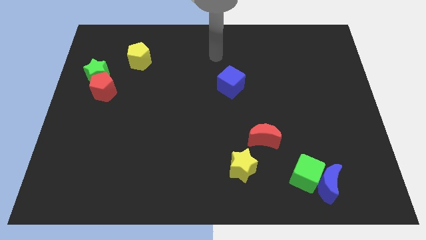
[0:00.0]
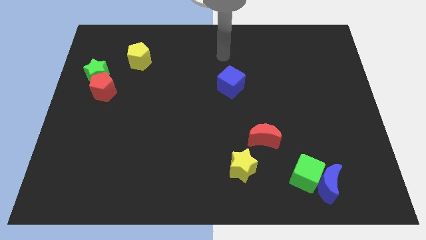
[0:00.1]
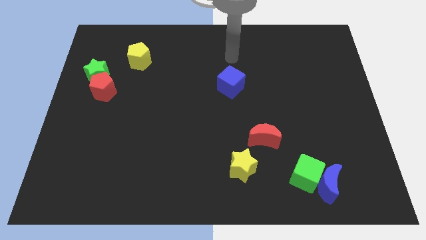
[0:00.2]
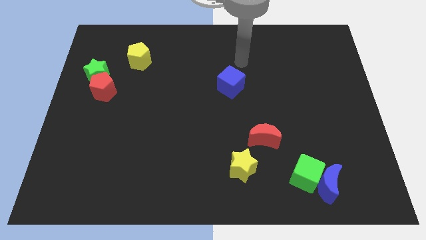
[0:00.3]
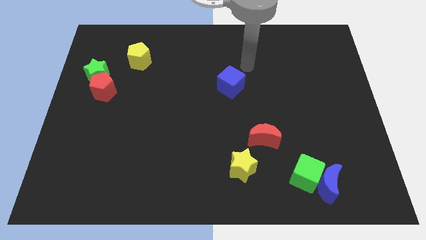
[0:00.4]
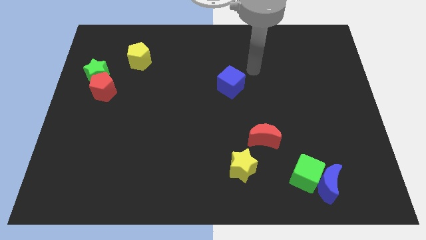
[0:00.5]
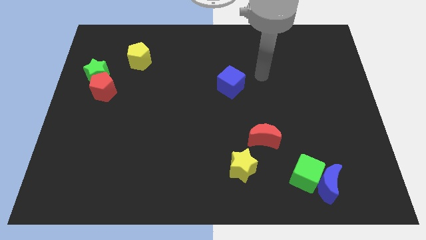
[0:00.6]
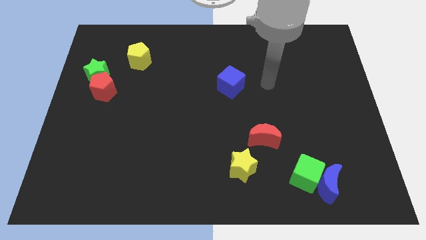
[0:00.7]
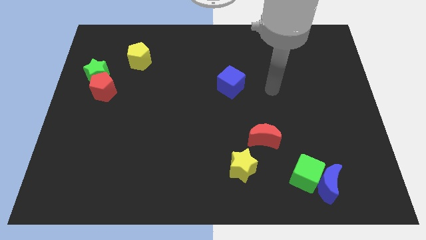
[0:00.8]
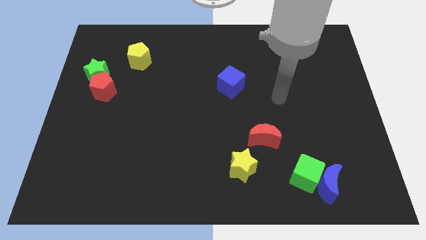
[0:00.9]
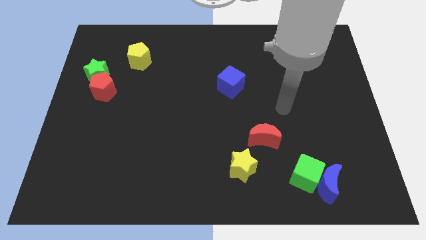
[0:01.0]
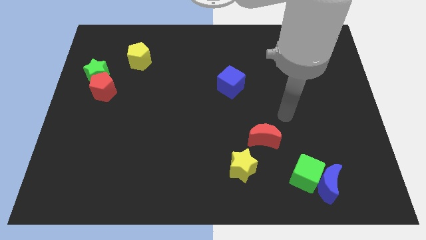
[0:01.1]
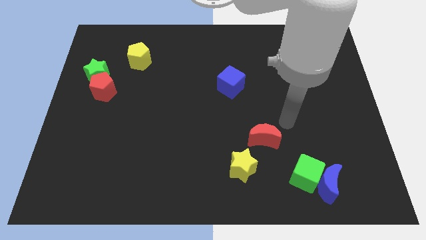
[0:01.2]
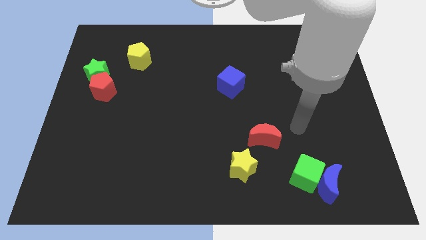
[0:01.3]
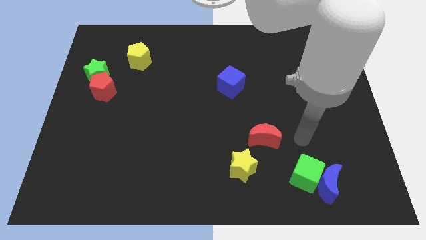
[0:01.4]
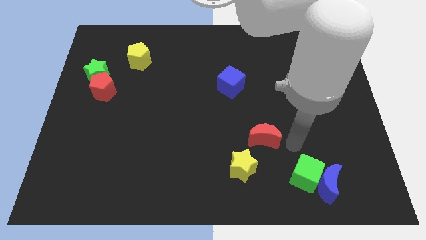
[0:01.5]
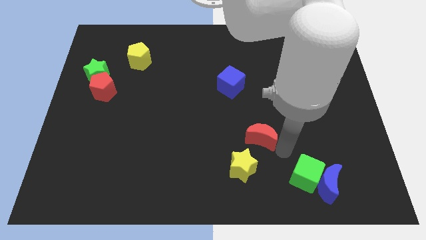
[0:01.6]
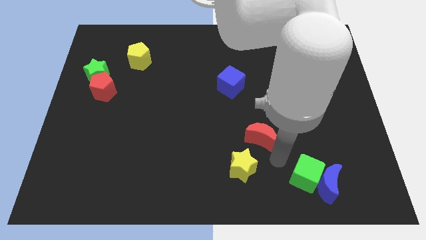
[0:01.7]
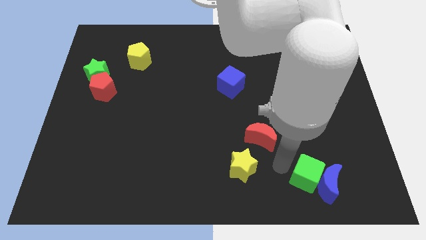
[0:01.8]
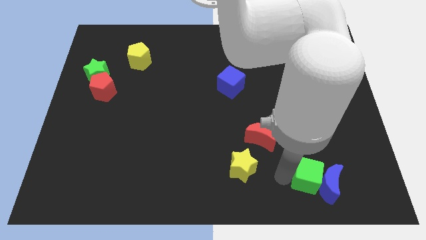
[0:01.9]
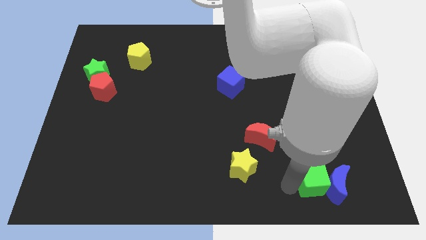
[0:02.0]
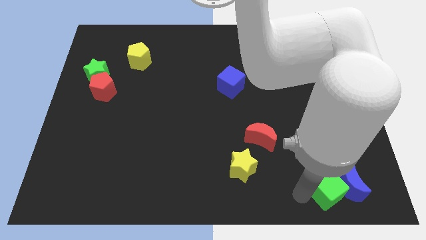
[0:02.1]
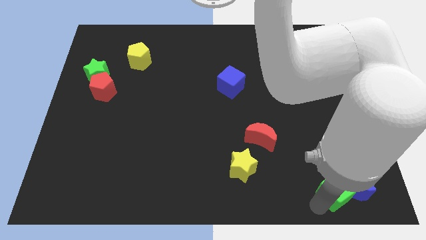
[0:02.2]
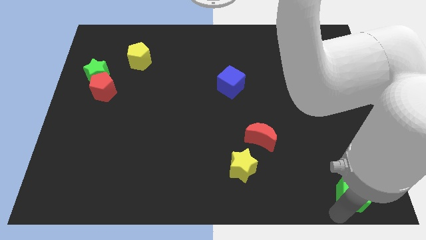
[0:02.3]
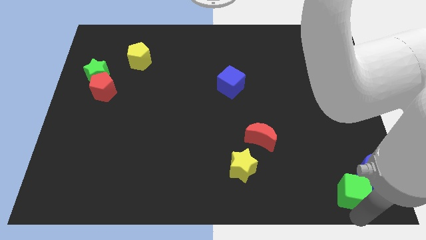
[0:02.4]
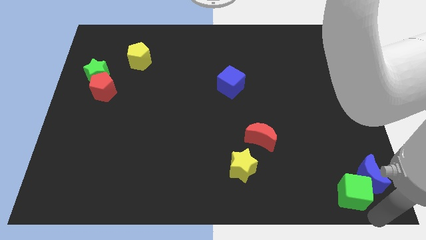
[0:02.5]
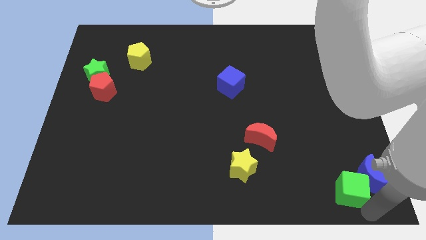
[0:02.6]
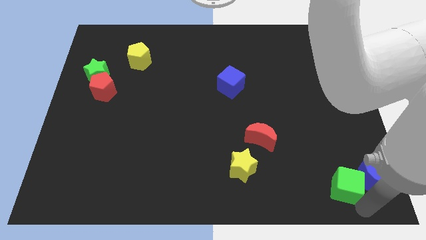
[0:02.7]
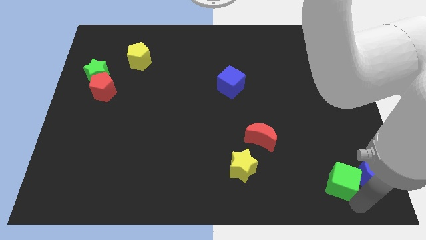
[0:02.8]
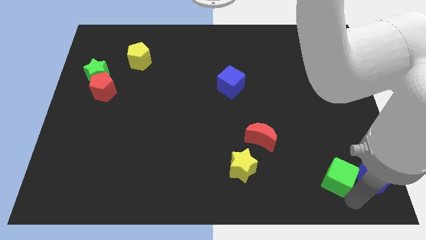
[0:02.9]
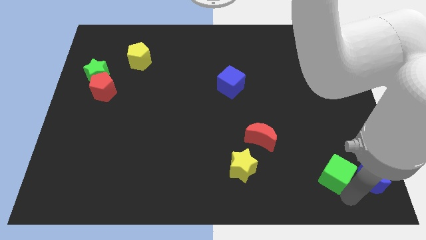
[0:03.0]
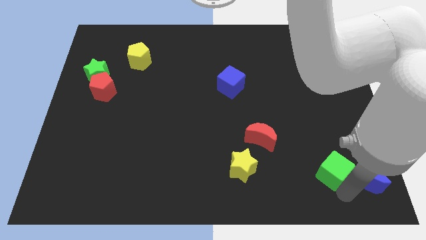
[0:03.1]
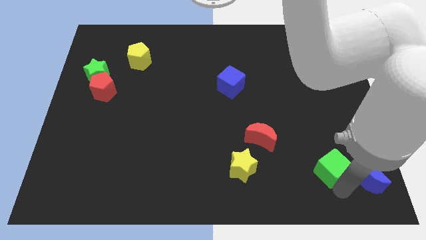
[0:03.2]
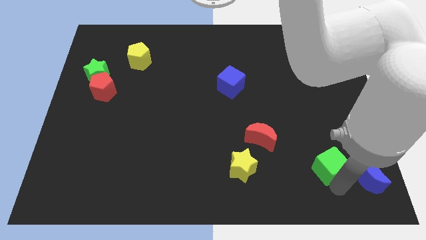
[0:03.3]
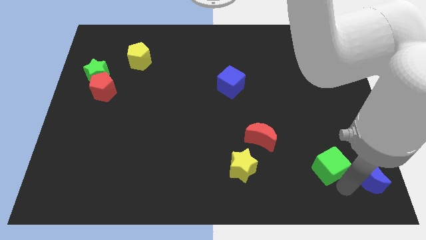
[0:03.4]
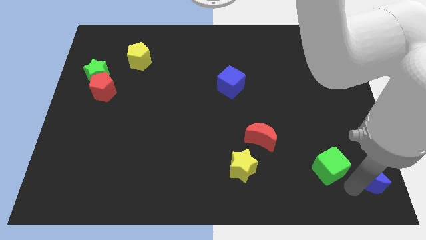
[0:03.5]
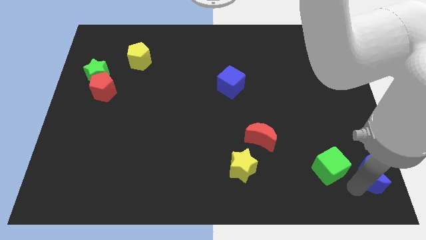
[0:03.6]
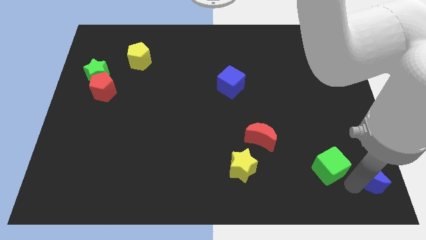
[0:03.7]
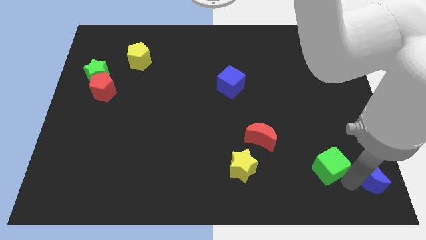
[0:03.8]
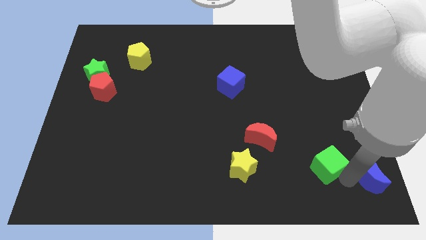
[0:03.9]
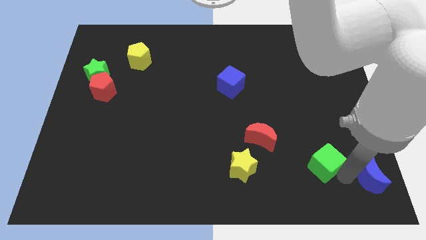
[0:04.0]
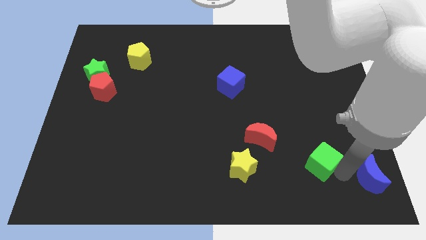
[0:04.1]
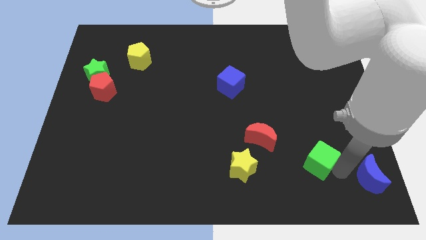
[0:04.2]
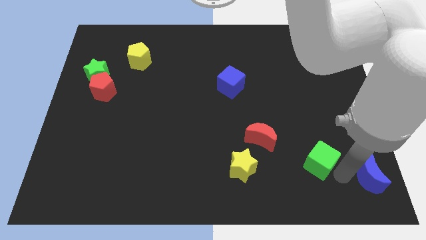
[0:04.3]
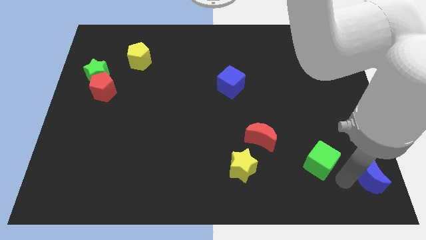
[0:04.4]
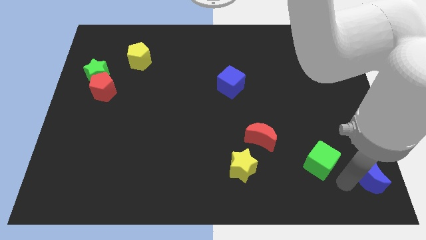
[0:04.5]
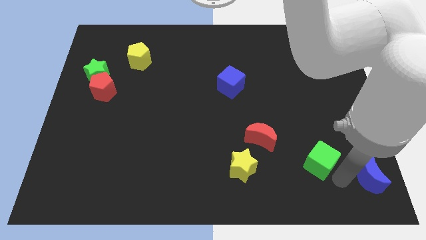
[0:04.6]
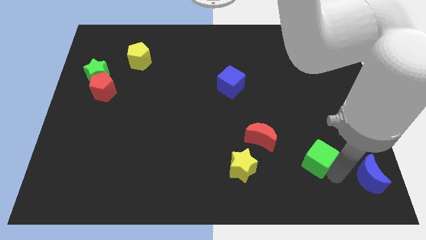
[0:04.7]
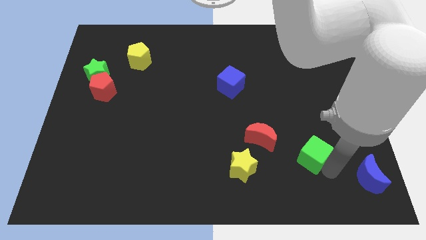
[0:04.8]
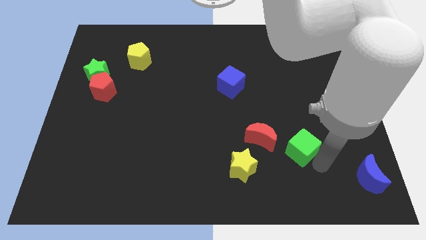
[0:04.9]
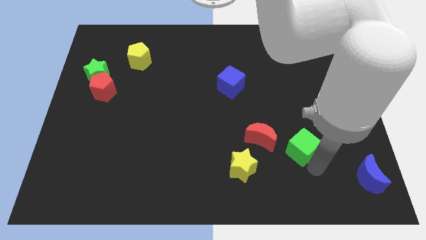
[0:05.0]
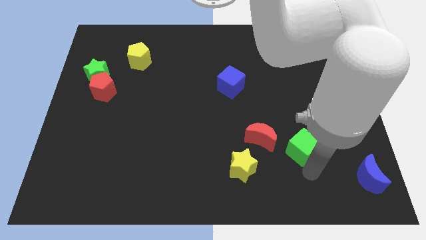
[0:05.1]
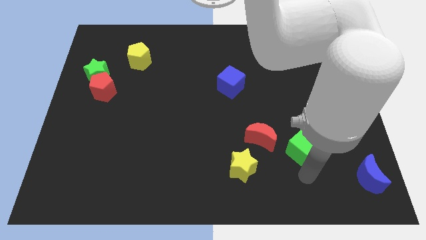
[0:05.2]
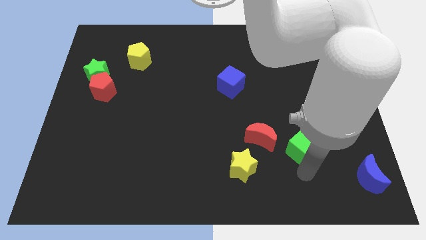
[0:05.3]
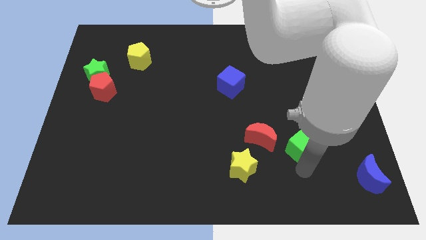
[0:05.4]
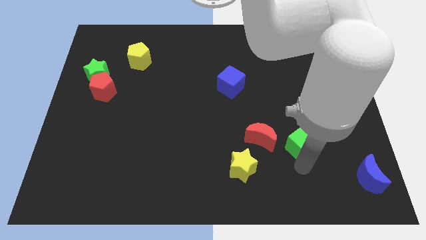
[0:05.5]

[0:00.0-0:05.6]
push the green cube a little up

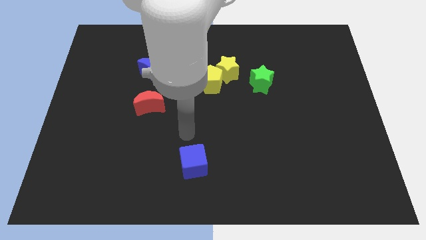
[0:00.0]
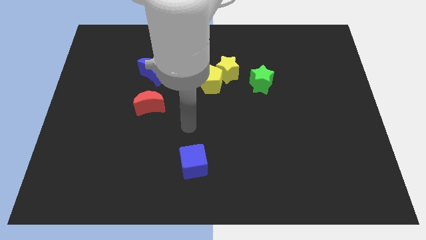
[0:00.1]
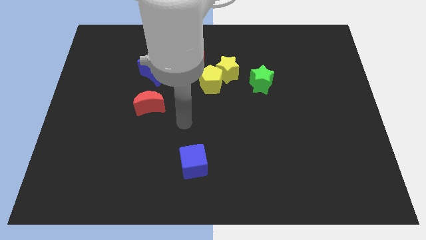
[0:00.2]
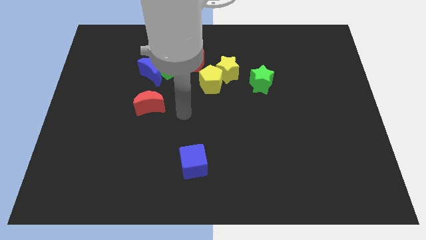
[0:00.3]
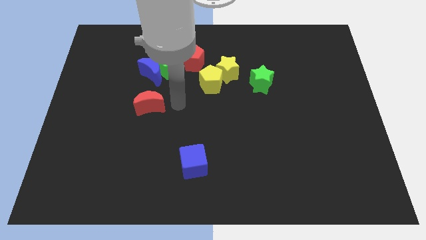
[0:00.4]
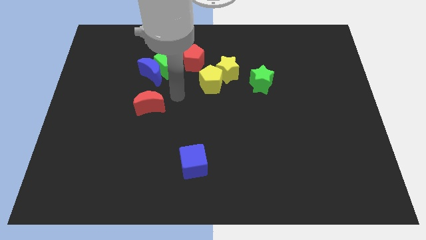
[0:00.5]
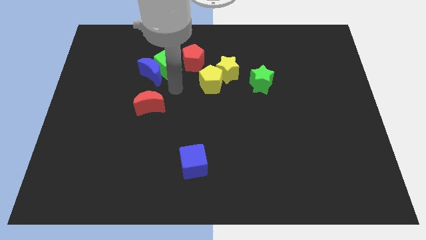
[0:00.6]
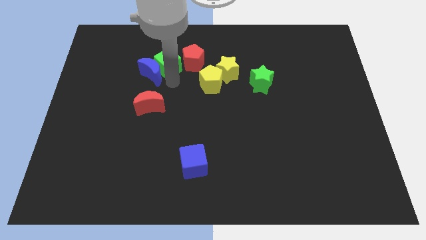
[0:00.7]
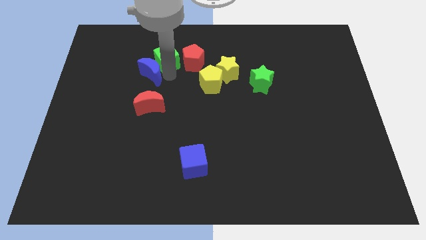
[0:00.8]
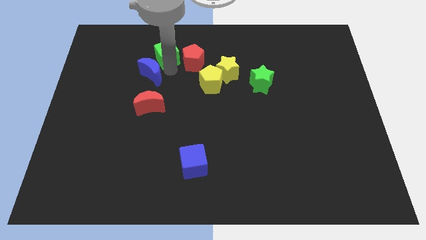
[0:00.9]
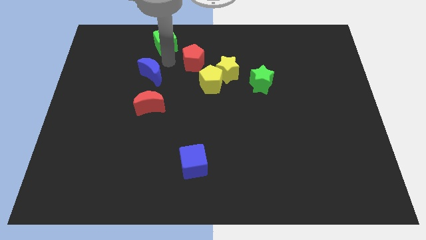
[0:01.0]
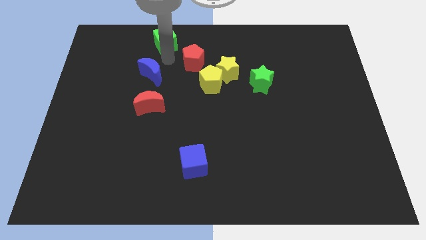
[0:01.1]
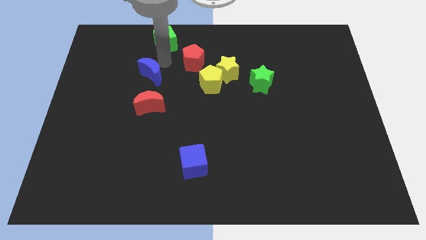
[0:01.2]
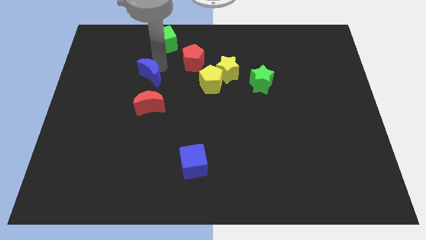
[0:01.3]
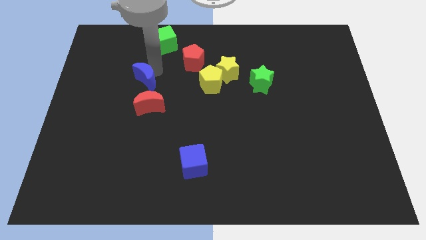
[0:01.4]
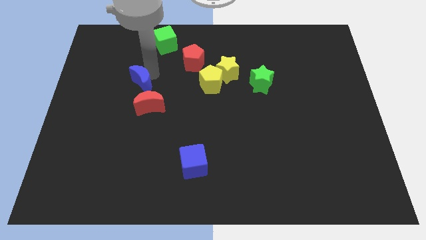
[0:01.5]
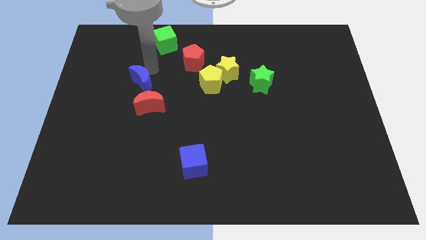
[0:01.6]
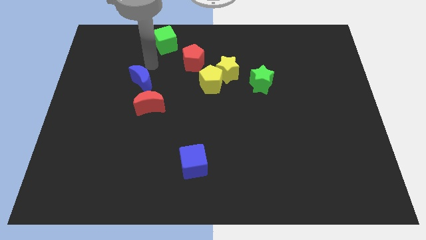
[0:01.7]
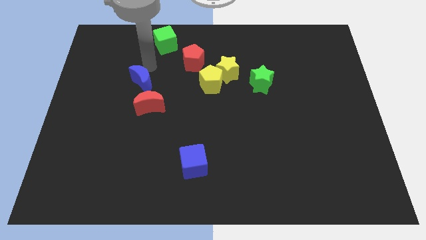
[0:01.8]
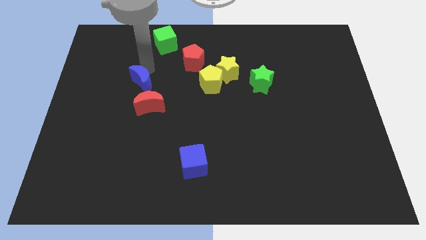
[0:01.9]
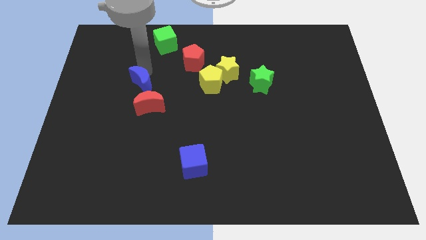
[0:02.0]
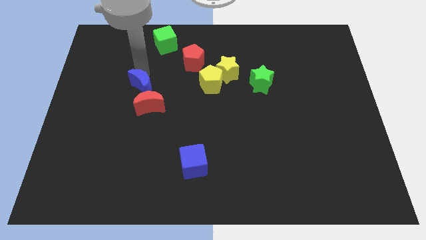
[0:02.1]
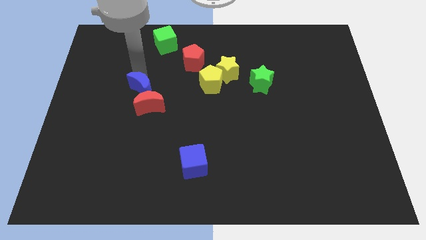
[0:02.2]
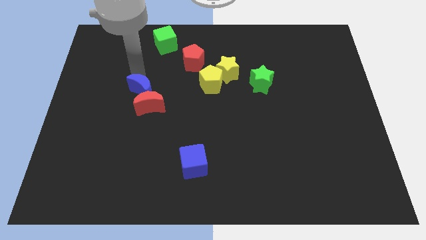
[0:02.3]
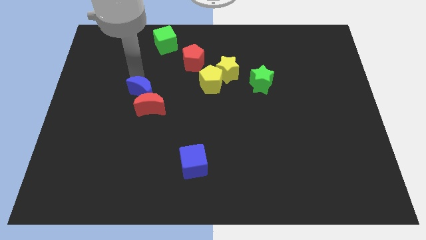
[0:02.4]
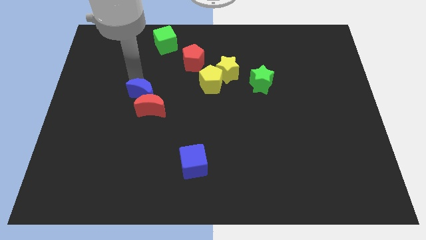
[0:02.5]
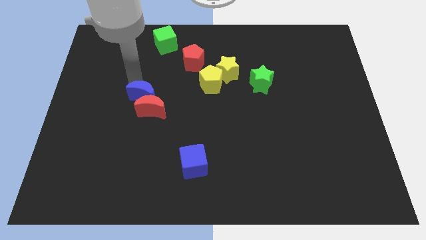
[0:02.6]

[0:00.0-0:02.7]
move the blue moon down somewhat
